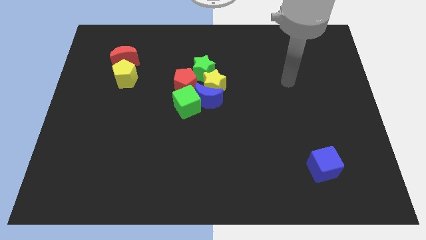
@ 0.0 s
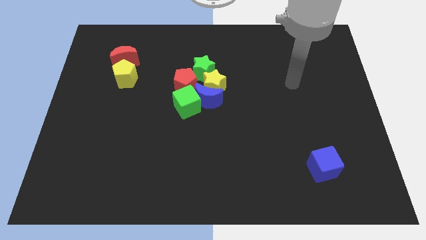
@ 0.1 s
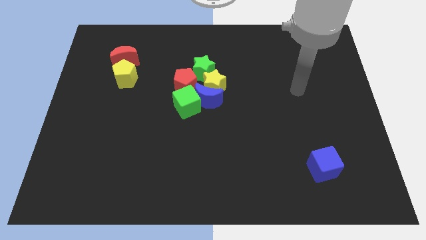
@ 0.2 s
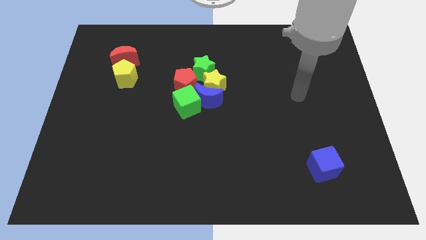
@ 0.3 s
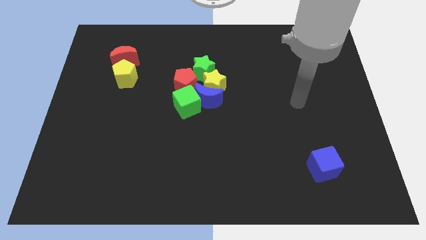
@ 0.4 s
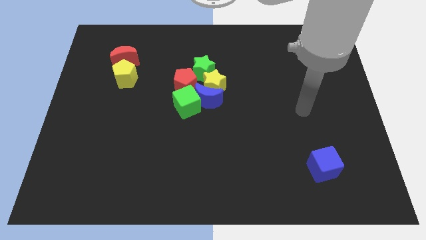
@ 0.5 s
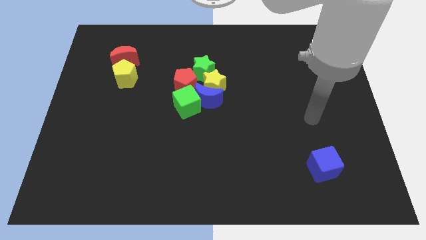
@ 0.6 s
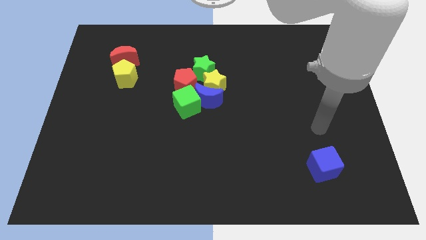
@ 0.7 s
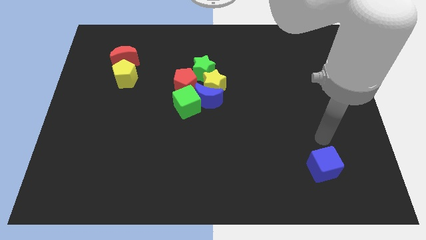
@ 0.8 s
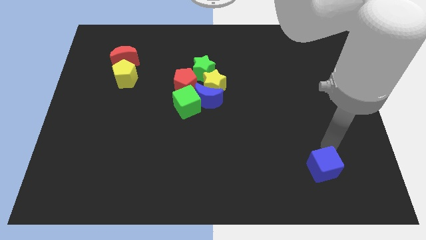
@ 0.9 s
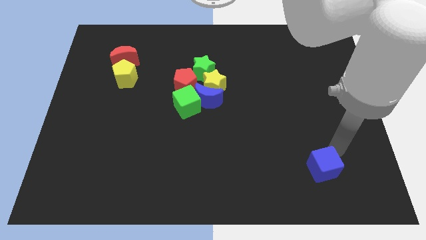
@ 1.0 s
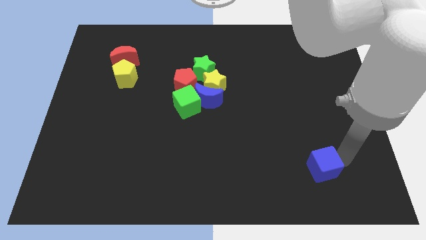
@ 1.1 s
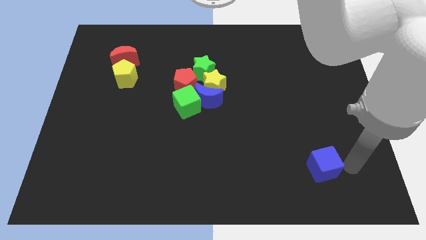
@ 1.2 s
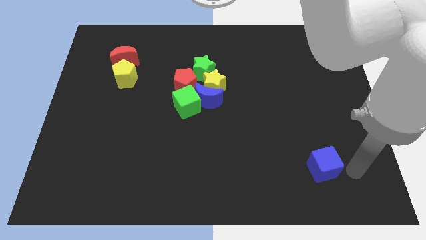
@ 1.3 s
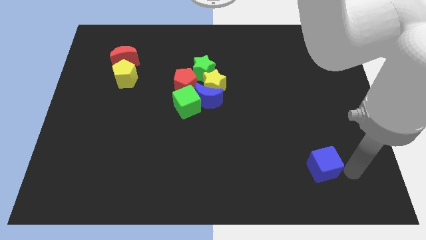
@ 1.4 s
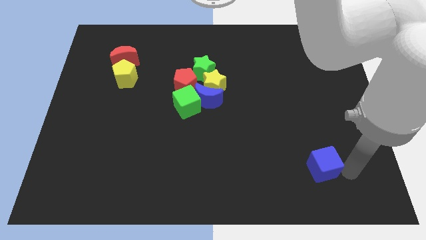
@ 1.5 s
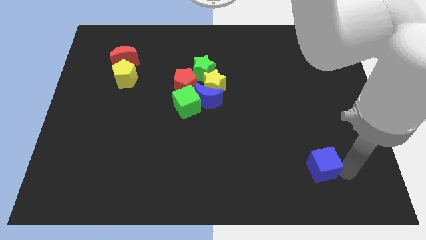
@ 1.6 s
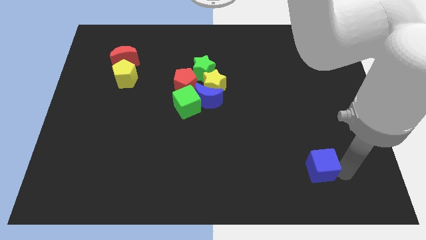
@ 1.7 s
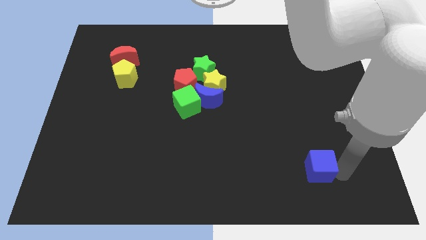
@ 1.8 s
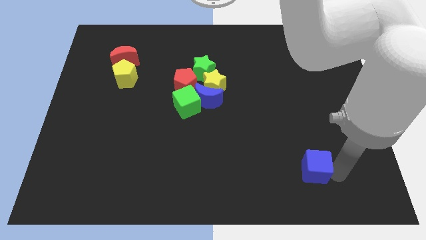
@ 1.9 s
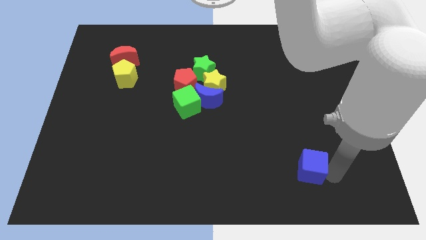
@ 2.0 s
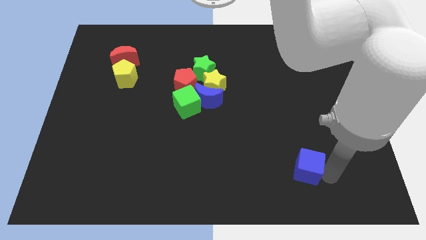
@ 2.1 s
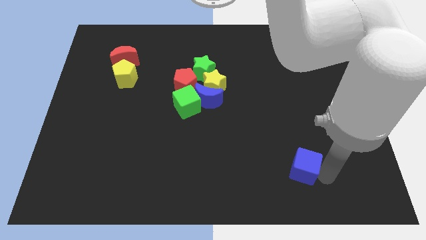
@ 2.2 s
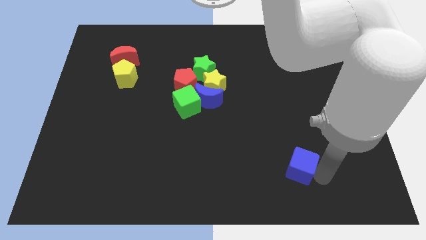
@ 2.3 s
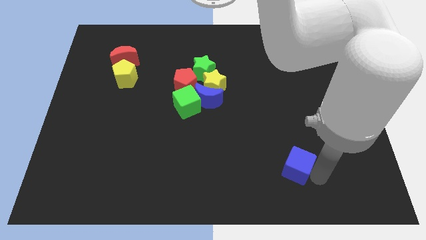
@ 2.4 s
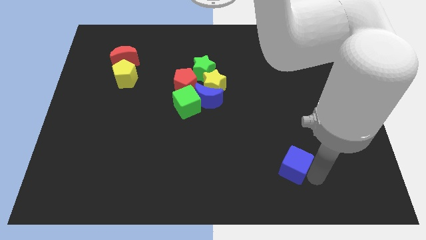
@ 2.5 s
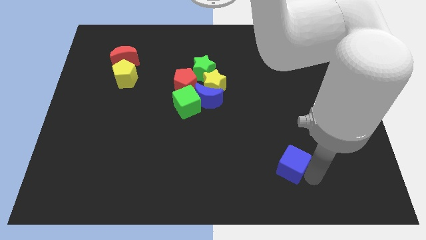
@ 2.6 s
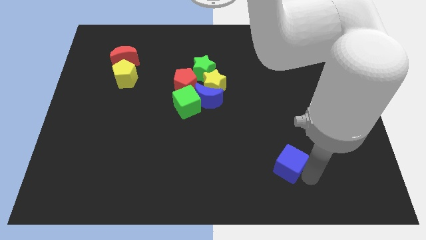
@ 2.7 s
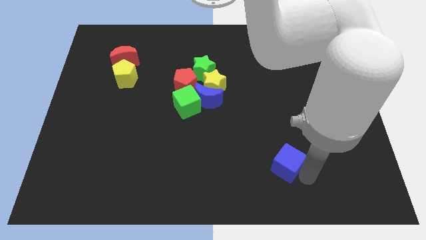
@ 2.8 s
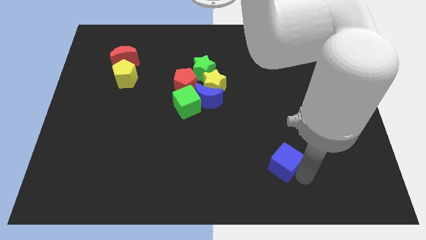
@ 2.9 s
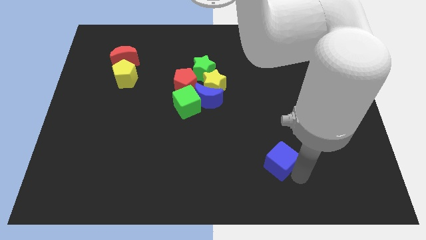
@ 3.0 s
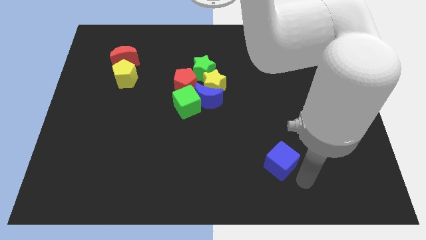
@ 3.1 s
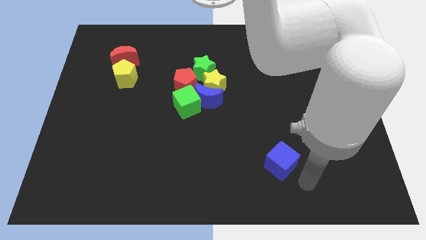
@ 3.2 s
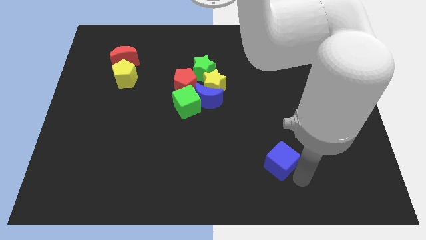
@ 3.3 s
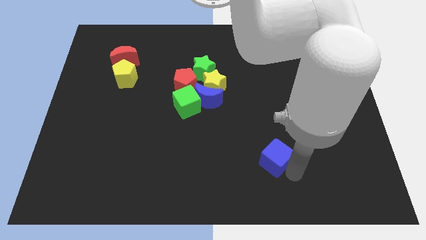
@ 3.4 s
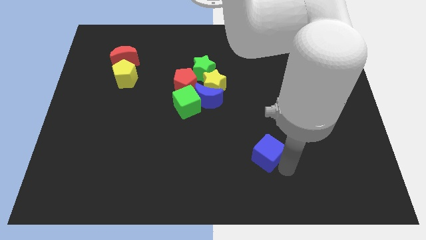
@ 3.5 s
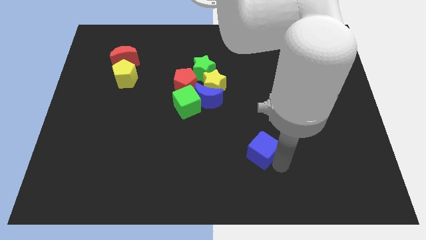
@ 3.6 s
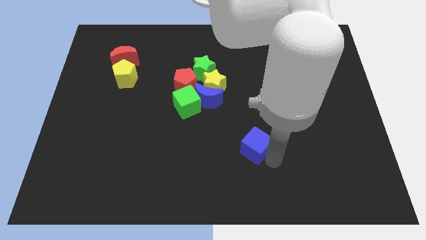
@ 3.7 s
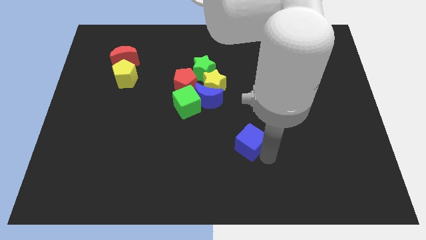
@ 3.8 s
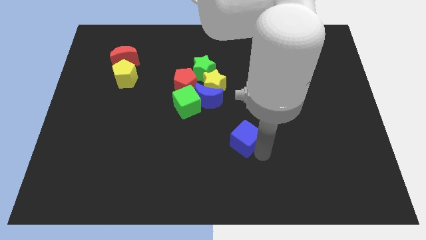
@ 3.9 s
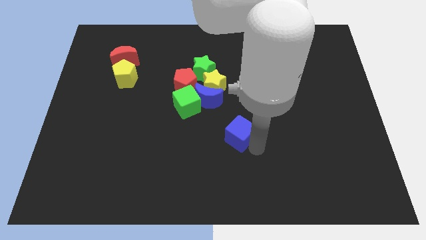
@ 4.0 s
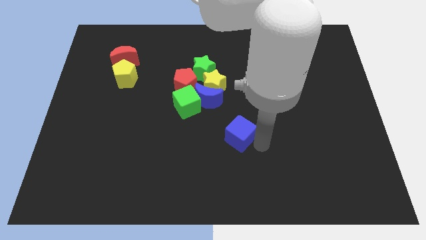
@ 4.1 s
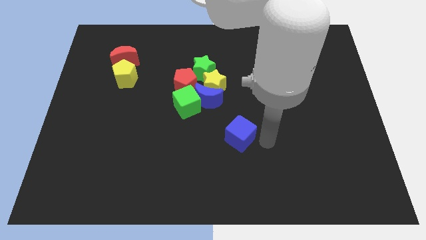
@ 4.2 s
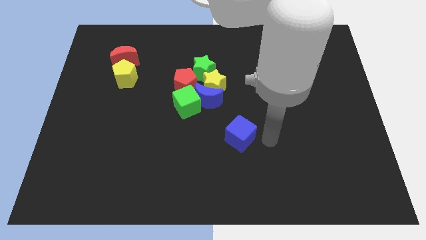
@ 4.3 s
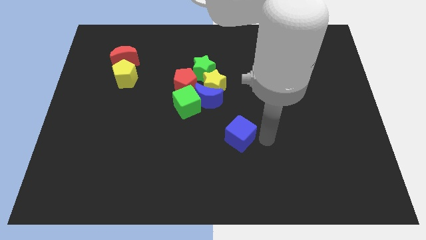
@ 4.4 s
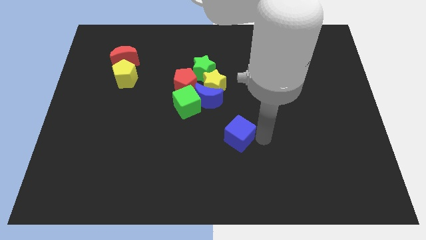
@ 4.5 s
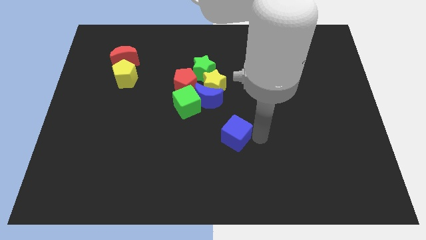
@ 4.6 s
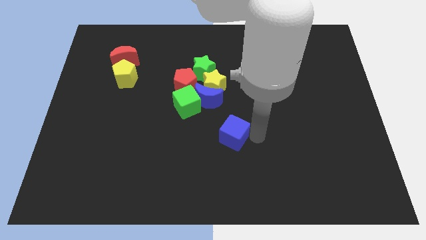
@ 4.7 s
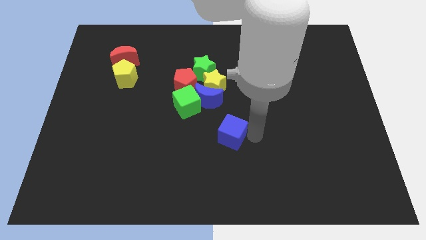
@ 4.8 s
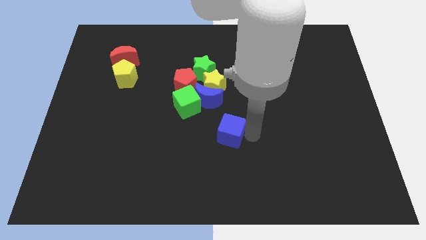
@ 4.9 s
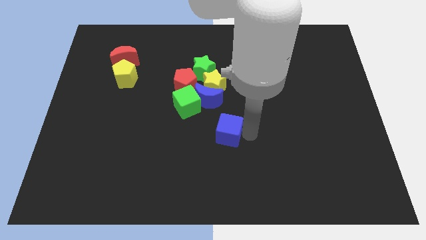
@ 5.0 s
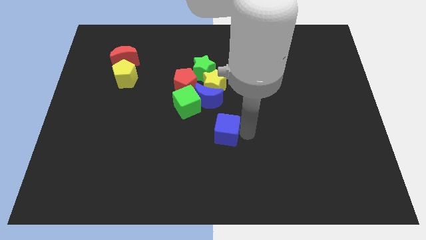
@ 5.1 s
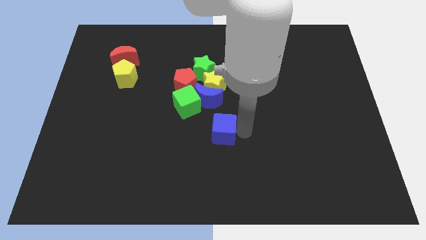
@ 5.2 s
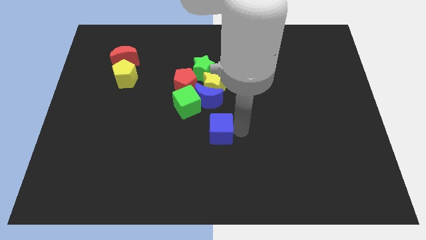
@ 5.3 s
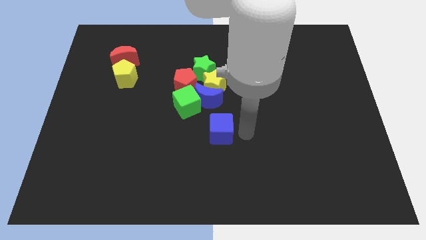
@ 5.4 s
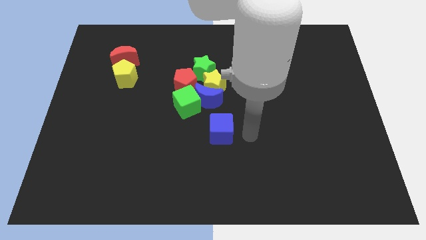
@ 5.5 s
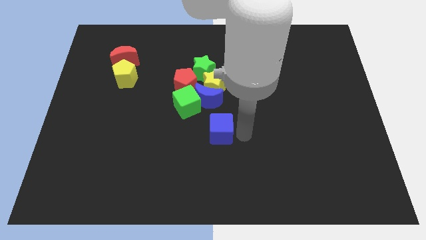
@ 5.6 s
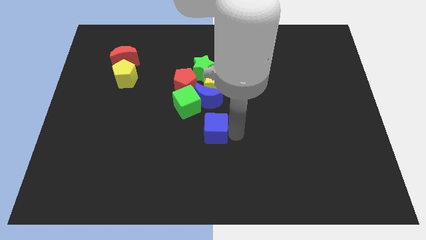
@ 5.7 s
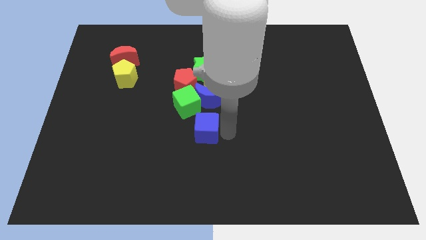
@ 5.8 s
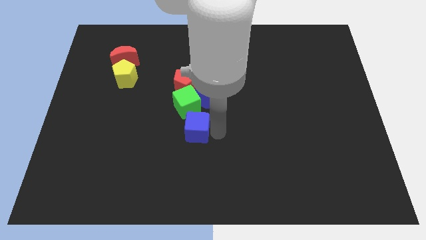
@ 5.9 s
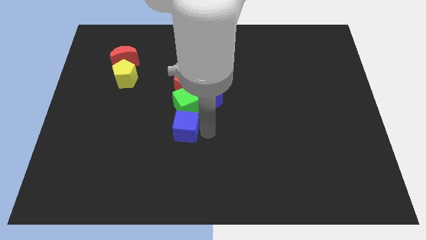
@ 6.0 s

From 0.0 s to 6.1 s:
slide the blue cube to the bottom left of the green cube
